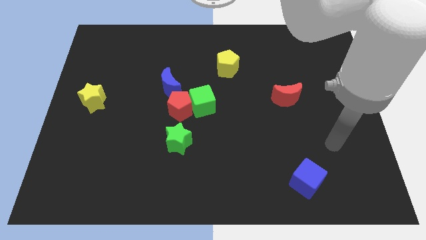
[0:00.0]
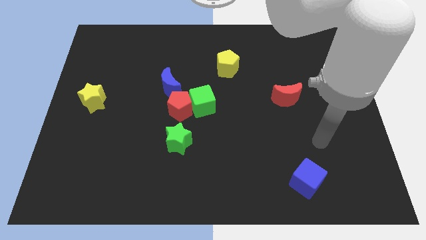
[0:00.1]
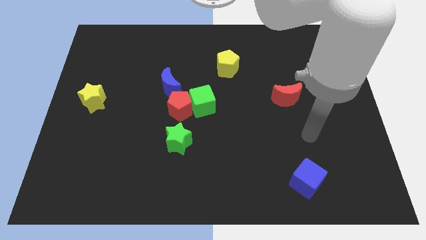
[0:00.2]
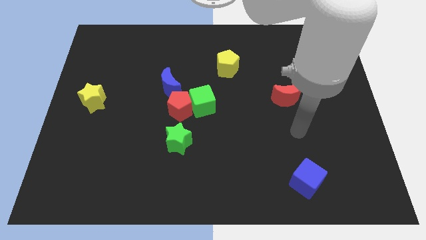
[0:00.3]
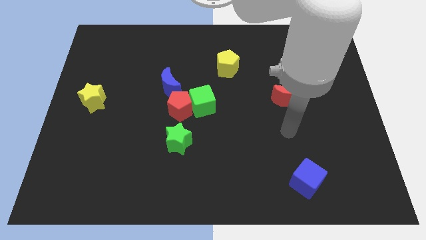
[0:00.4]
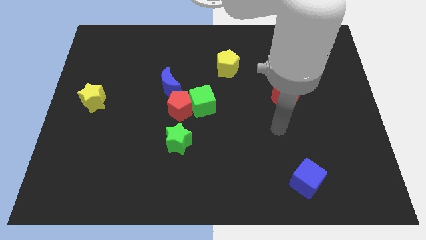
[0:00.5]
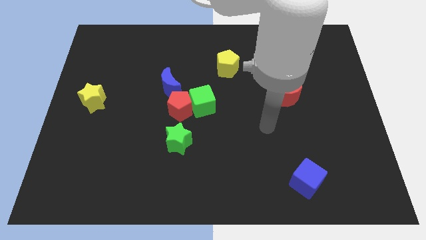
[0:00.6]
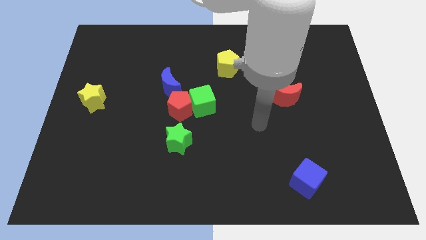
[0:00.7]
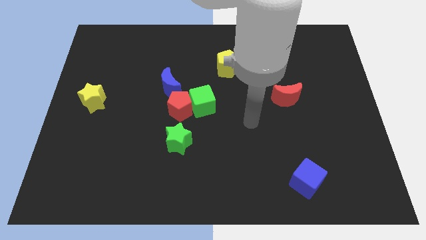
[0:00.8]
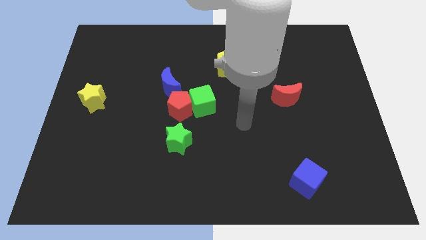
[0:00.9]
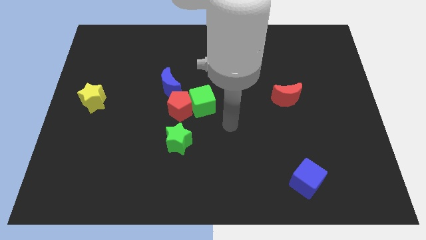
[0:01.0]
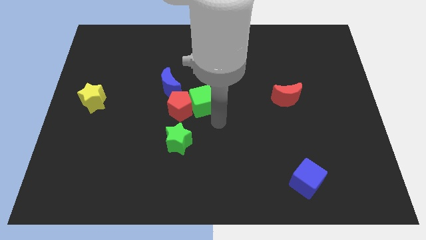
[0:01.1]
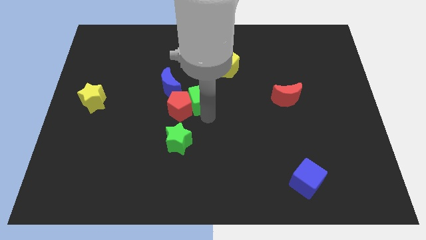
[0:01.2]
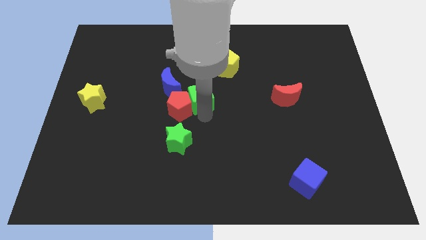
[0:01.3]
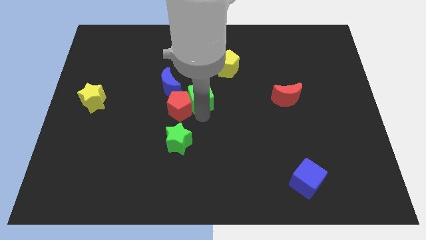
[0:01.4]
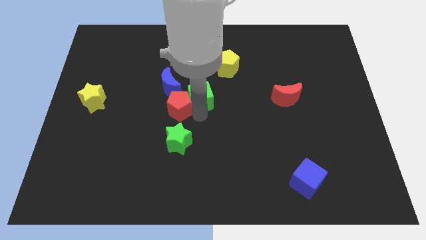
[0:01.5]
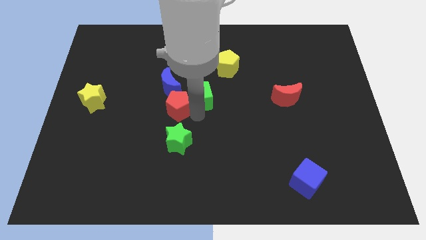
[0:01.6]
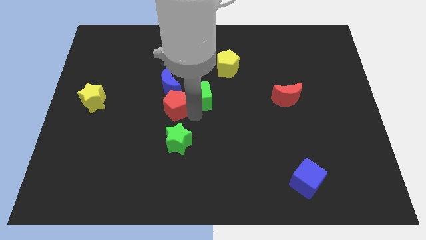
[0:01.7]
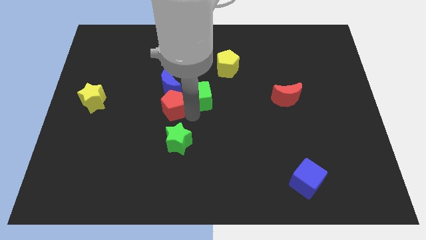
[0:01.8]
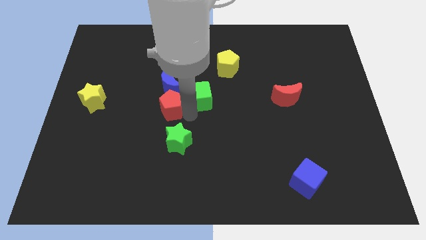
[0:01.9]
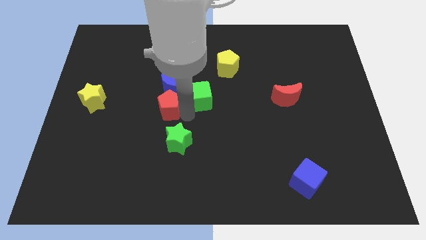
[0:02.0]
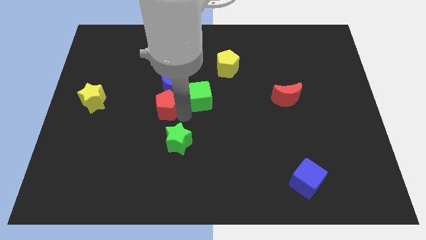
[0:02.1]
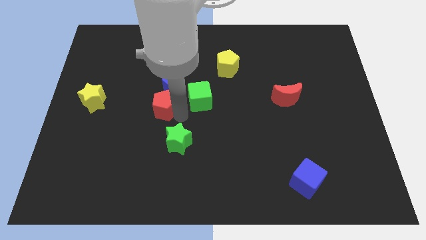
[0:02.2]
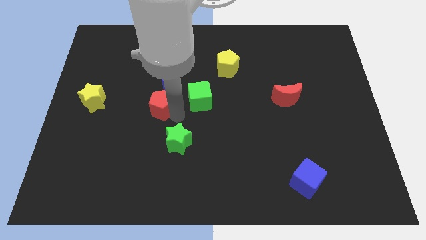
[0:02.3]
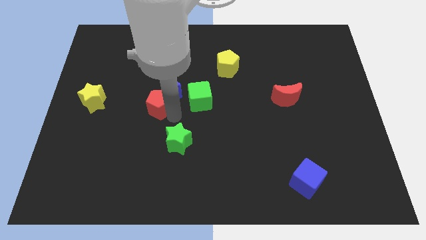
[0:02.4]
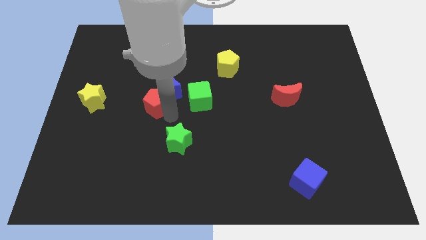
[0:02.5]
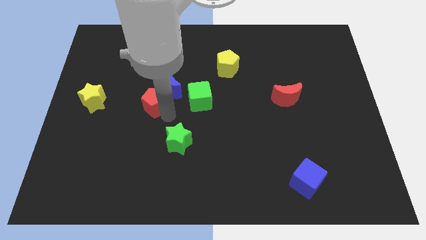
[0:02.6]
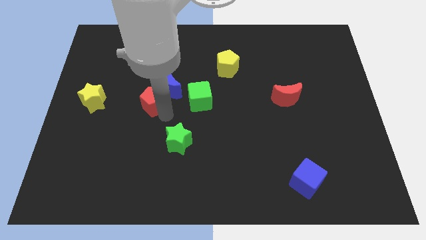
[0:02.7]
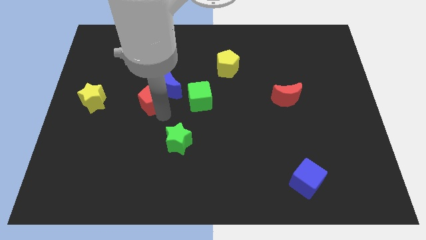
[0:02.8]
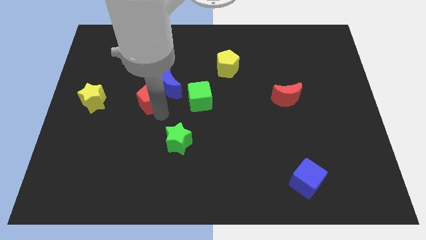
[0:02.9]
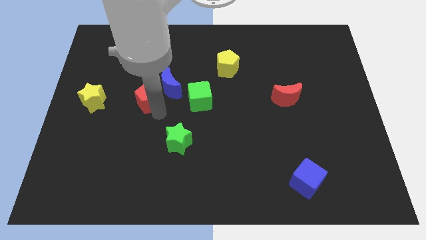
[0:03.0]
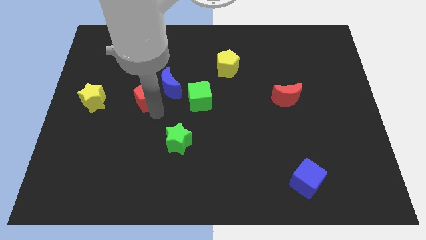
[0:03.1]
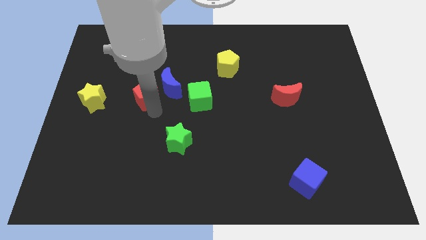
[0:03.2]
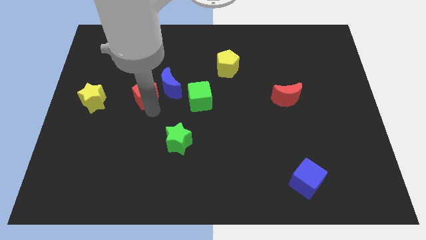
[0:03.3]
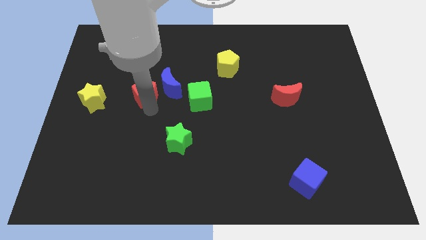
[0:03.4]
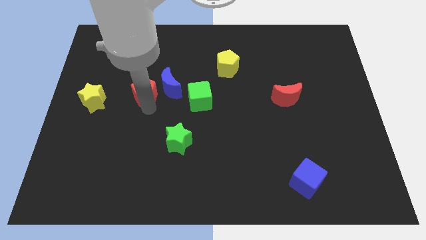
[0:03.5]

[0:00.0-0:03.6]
pull the red pentagon apart from the group of blocks

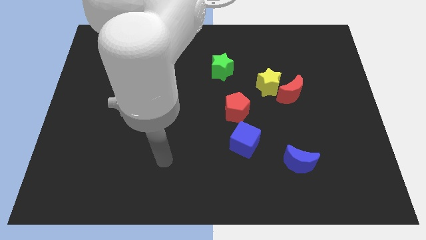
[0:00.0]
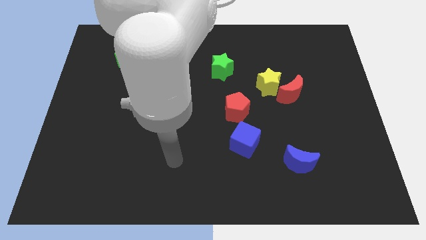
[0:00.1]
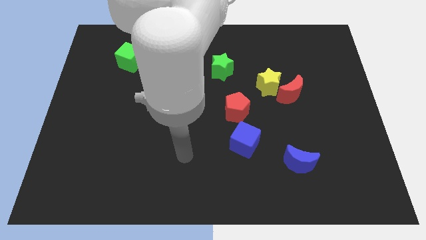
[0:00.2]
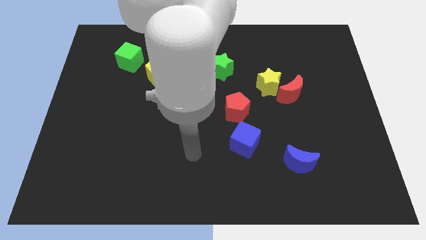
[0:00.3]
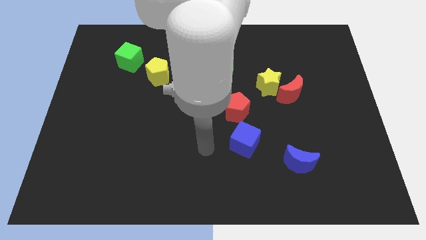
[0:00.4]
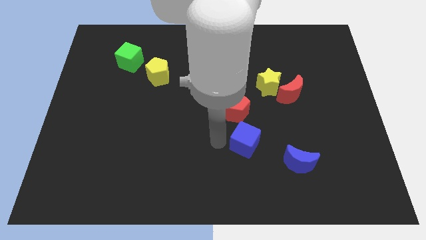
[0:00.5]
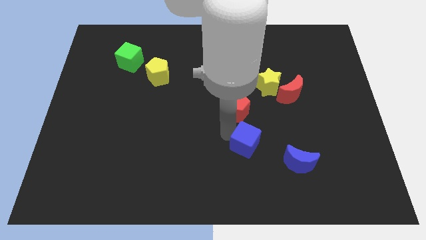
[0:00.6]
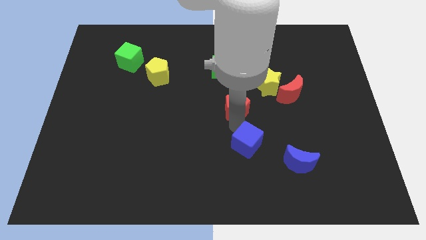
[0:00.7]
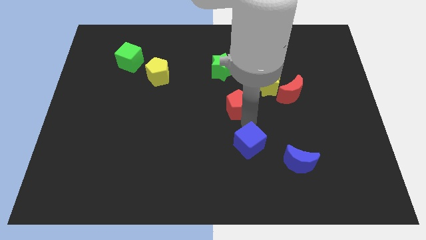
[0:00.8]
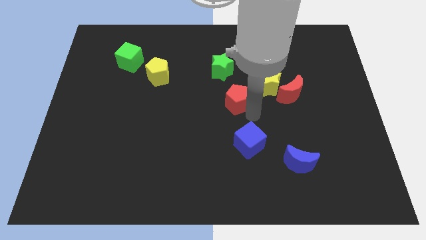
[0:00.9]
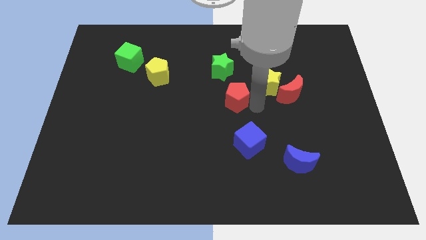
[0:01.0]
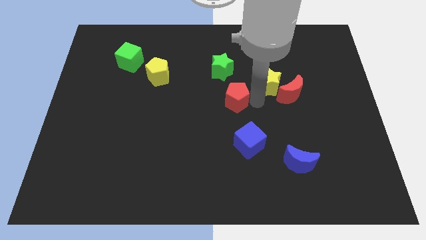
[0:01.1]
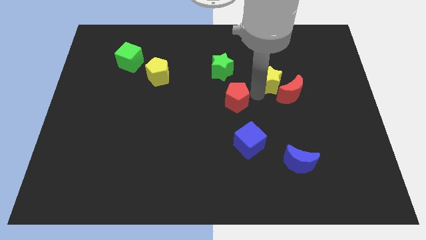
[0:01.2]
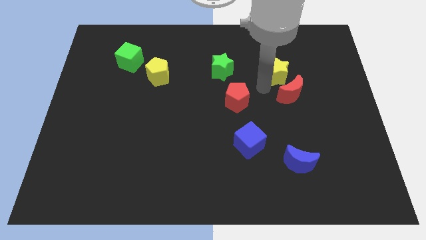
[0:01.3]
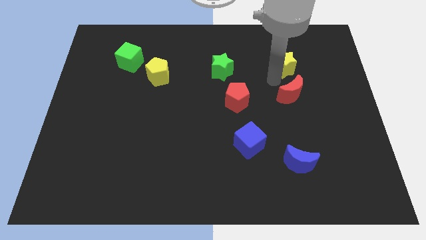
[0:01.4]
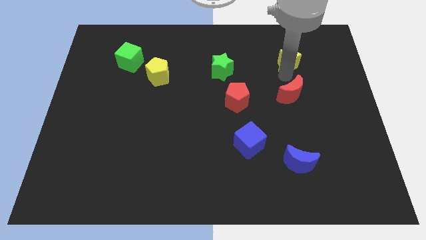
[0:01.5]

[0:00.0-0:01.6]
pull the red moon apart from the yellow star

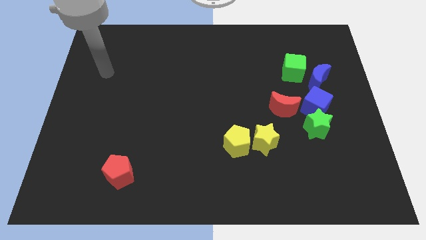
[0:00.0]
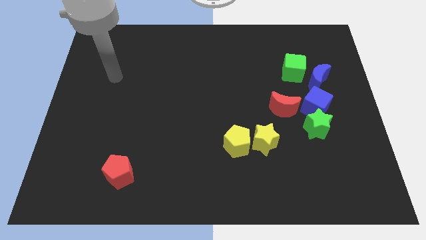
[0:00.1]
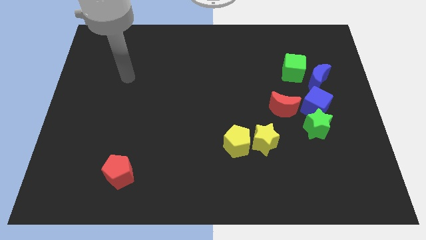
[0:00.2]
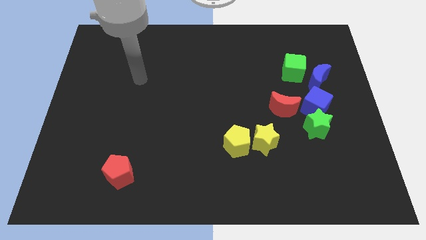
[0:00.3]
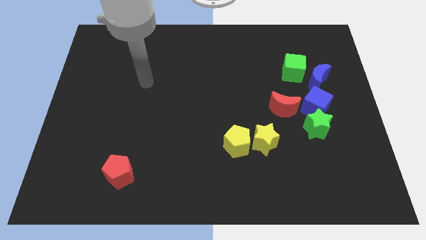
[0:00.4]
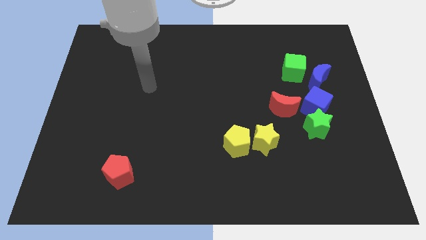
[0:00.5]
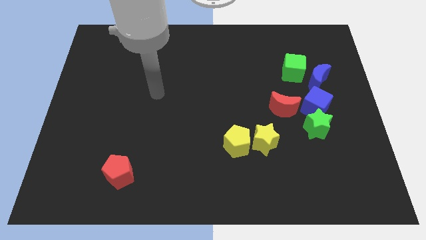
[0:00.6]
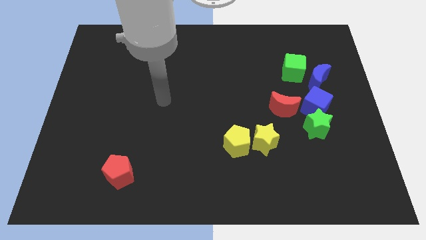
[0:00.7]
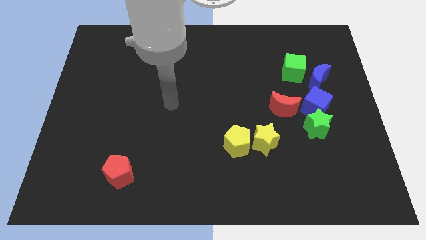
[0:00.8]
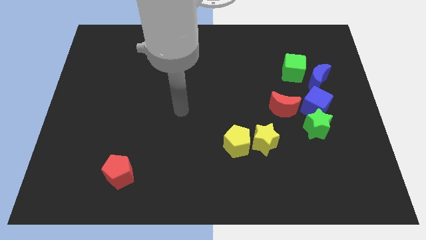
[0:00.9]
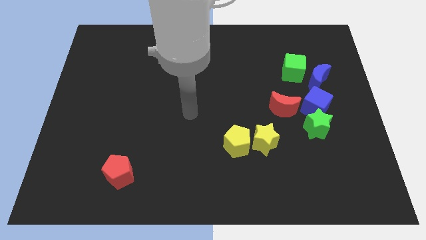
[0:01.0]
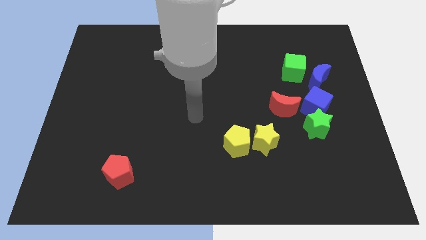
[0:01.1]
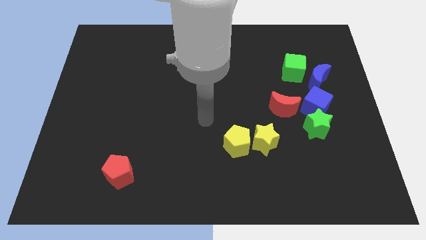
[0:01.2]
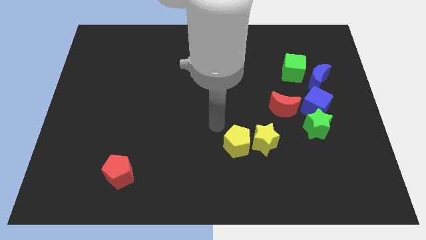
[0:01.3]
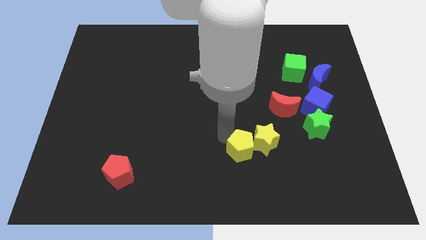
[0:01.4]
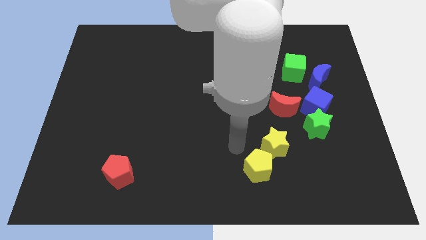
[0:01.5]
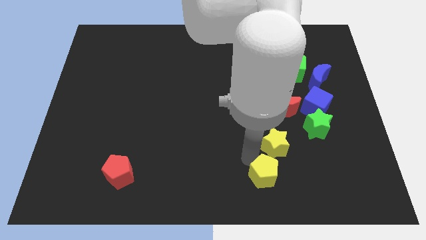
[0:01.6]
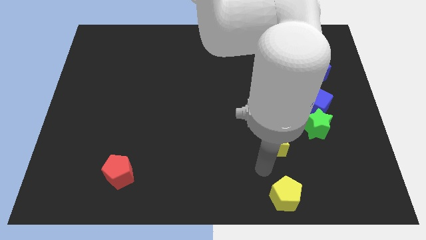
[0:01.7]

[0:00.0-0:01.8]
pull the yellow star apart from the yellow pentagon

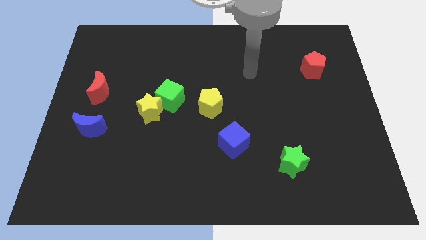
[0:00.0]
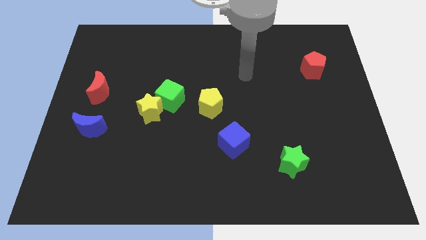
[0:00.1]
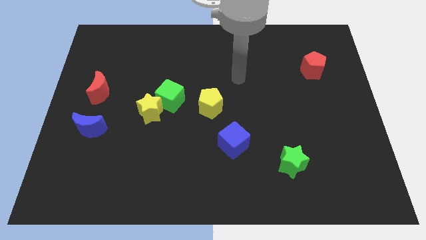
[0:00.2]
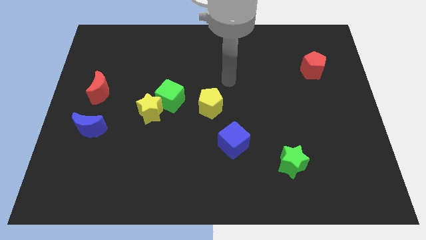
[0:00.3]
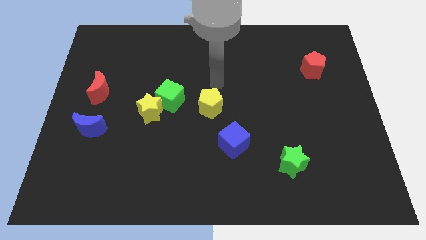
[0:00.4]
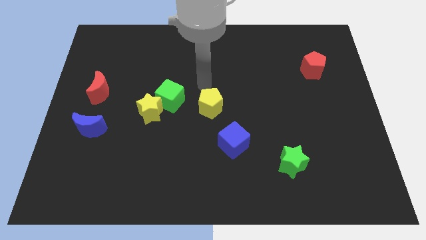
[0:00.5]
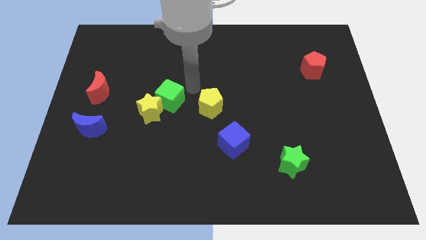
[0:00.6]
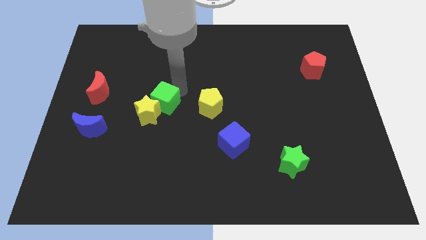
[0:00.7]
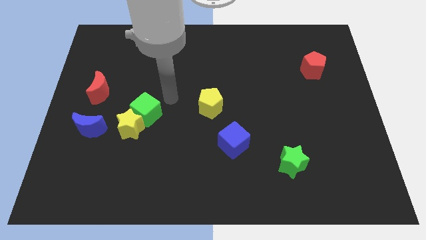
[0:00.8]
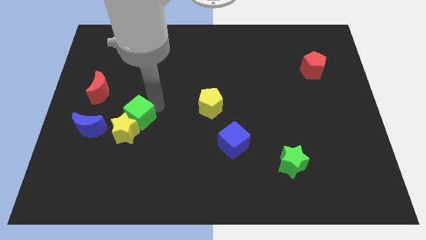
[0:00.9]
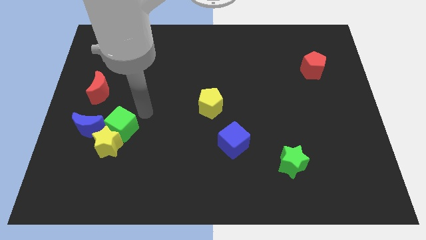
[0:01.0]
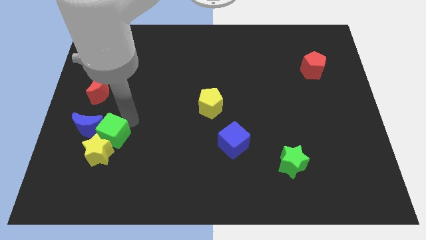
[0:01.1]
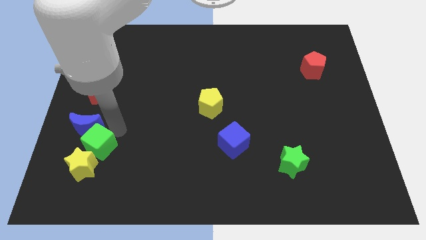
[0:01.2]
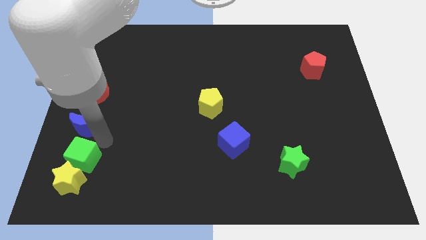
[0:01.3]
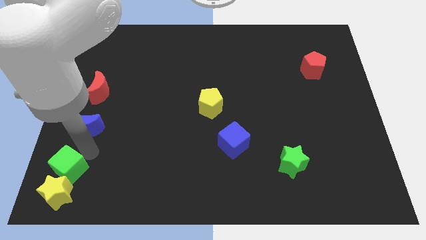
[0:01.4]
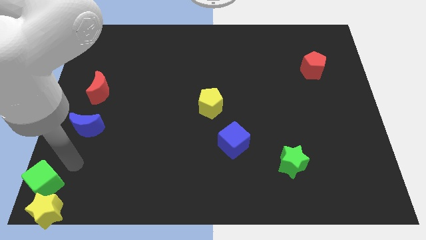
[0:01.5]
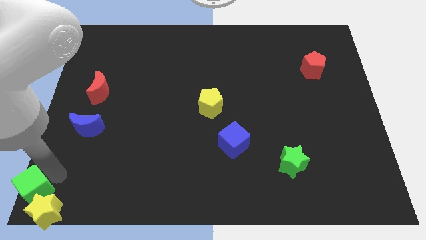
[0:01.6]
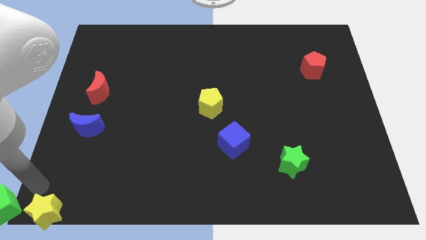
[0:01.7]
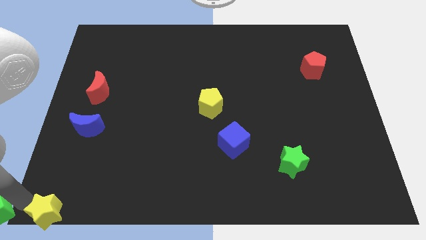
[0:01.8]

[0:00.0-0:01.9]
separate the yellow star from the green cube

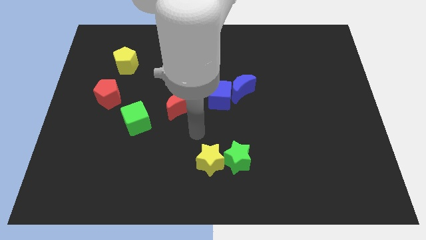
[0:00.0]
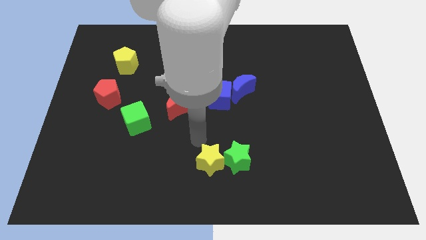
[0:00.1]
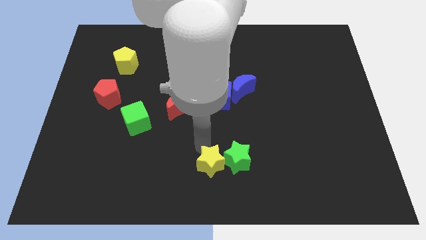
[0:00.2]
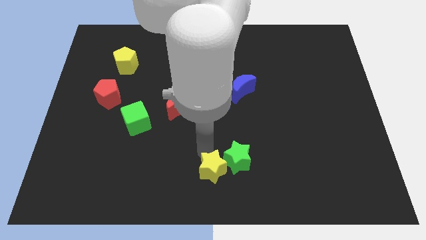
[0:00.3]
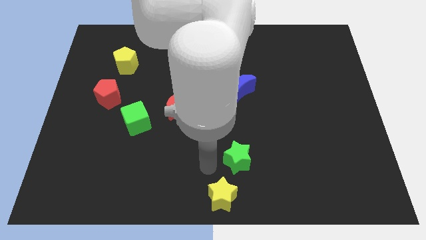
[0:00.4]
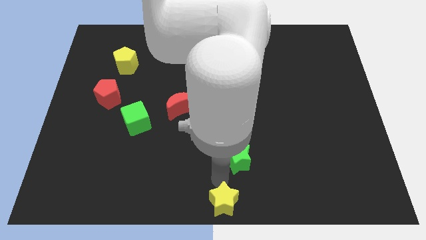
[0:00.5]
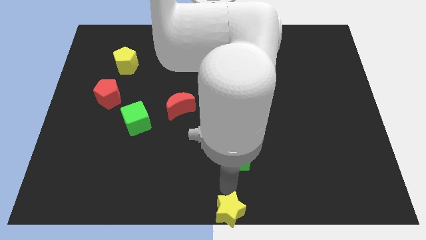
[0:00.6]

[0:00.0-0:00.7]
move the green star away from the yellow star
